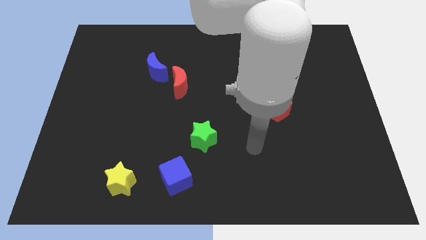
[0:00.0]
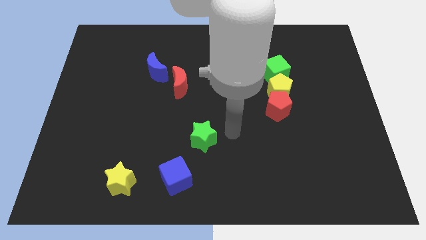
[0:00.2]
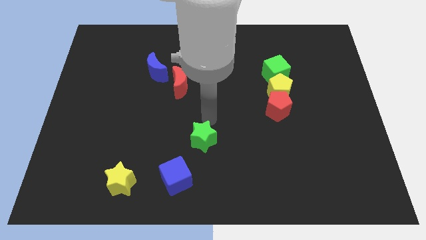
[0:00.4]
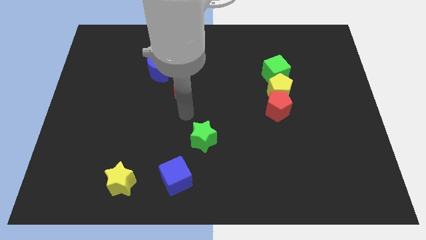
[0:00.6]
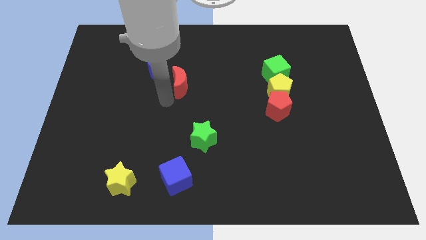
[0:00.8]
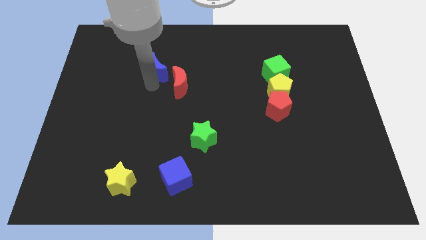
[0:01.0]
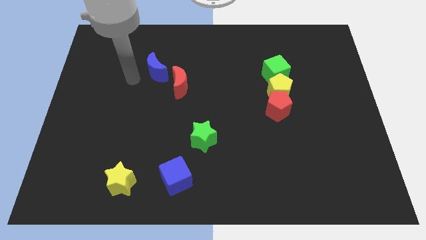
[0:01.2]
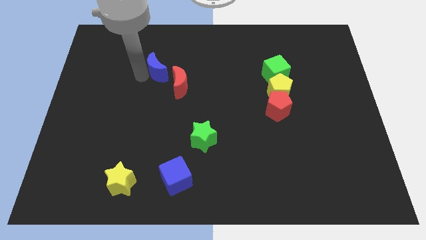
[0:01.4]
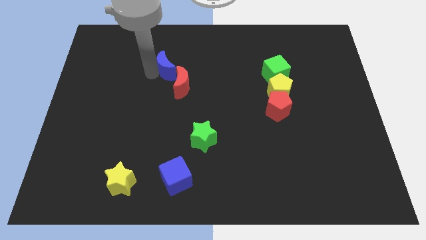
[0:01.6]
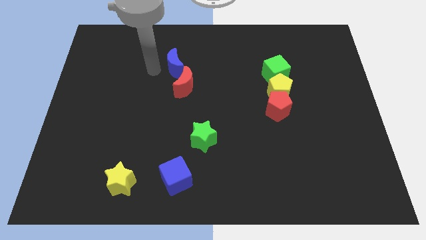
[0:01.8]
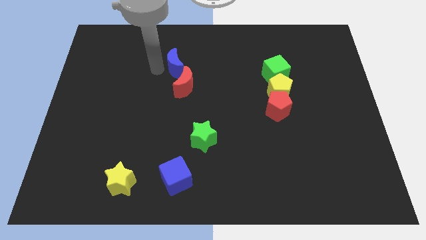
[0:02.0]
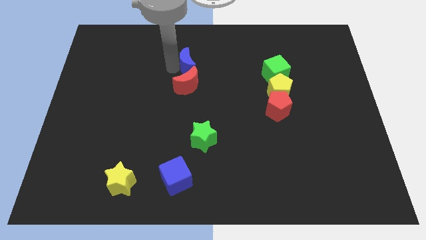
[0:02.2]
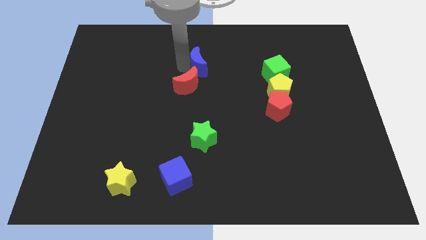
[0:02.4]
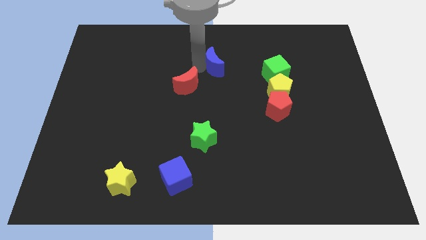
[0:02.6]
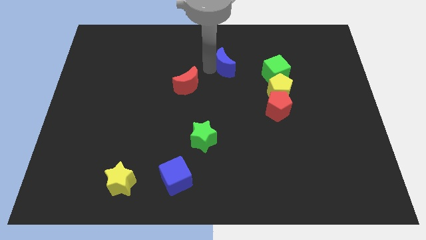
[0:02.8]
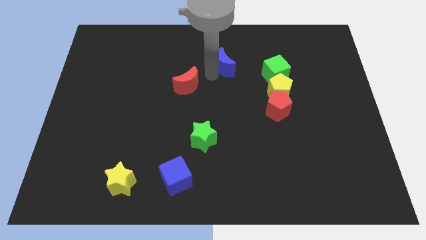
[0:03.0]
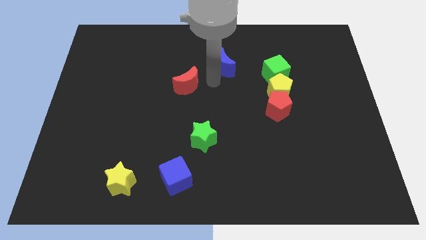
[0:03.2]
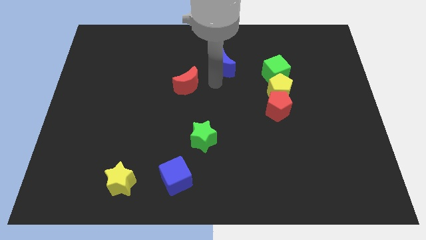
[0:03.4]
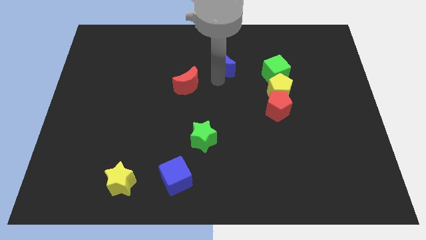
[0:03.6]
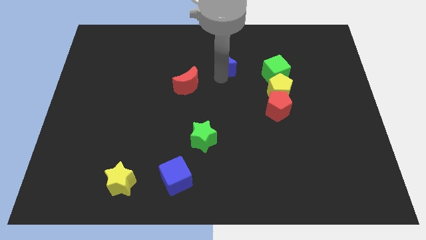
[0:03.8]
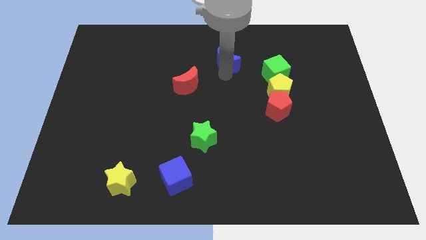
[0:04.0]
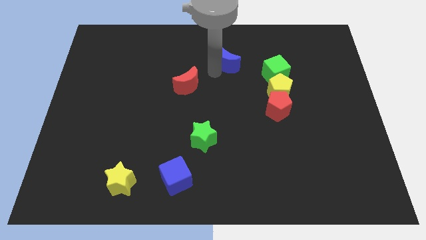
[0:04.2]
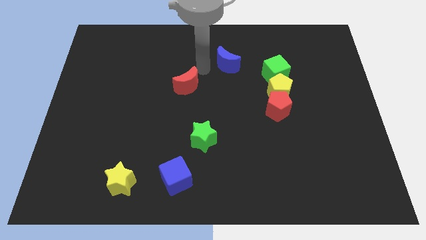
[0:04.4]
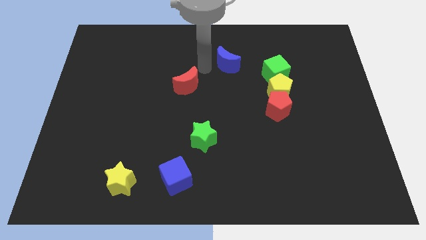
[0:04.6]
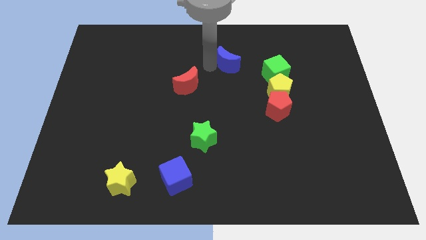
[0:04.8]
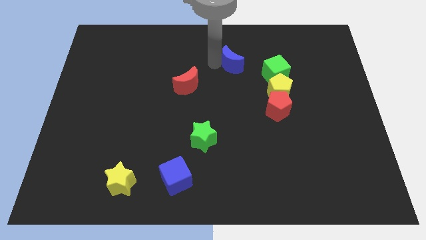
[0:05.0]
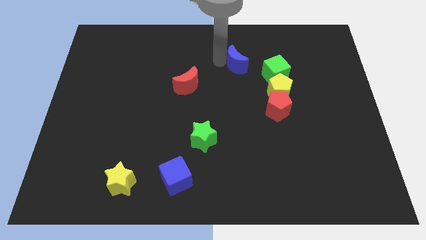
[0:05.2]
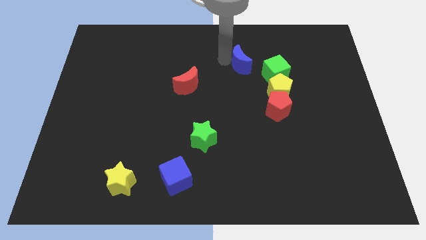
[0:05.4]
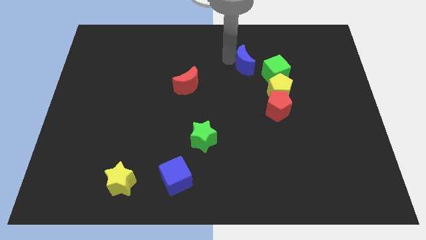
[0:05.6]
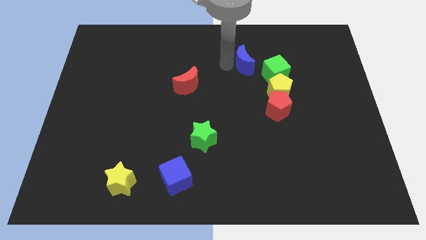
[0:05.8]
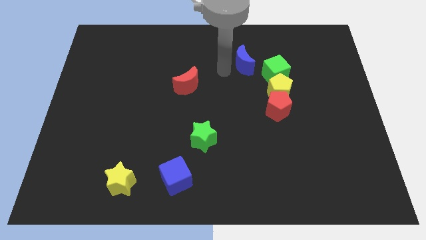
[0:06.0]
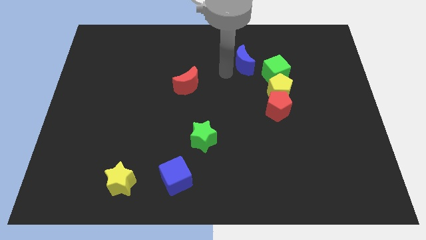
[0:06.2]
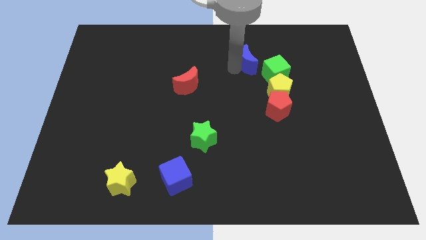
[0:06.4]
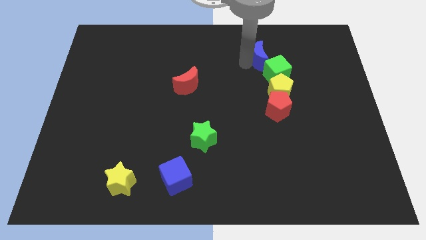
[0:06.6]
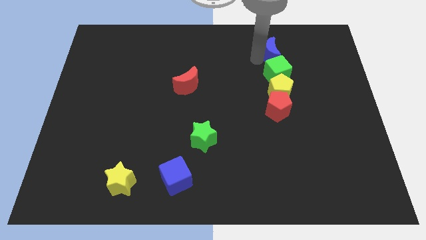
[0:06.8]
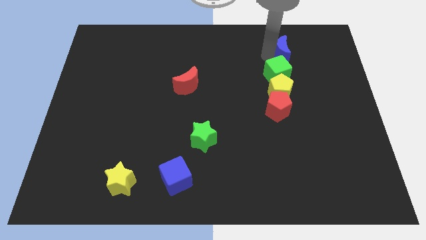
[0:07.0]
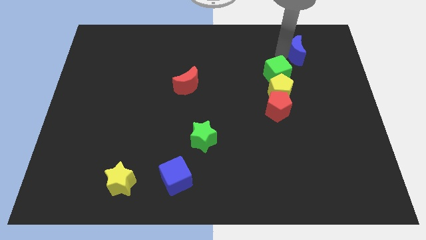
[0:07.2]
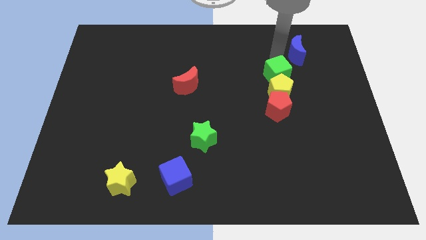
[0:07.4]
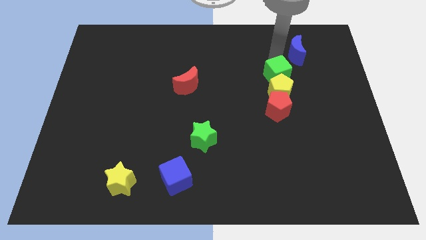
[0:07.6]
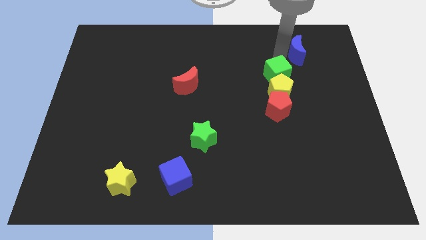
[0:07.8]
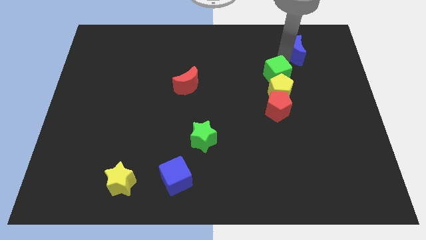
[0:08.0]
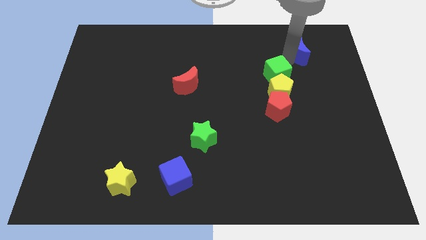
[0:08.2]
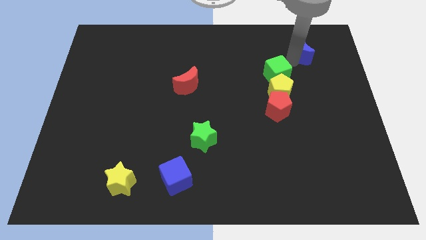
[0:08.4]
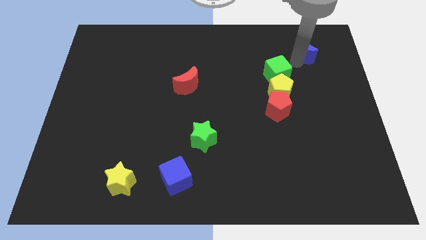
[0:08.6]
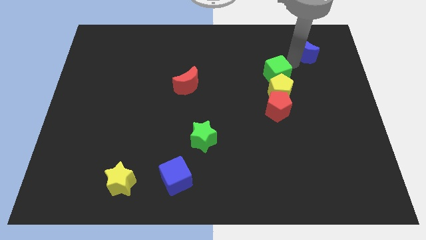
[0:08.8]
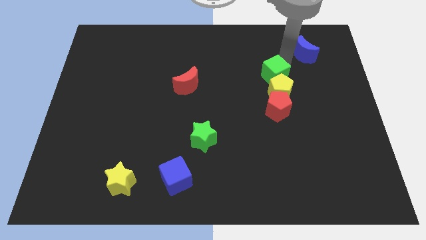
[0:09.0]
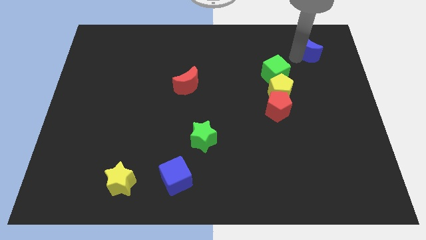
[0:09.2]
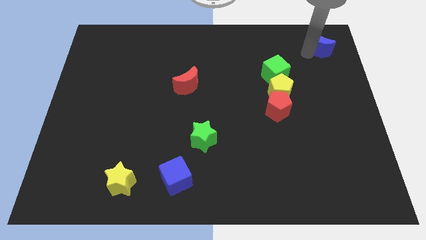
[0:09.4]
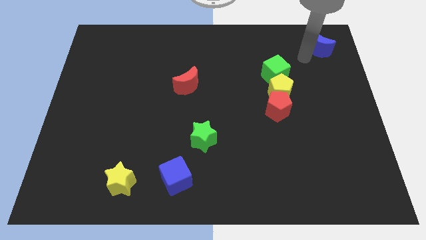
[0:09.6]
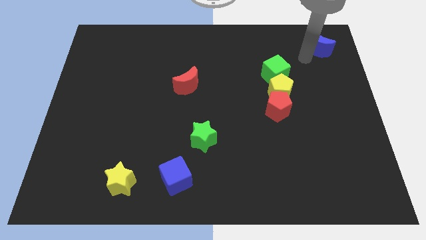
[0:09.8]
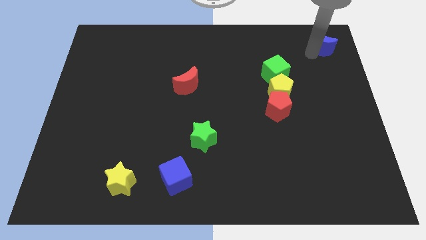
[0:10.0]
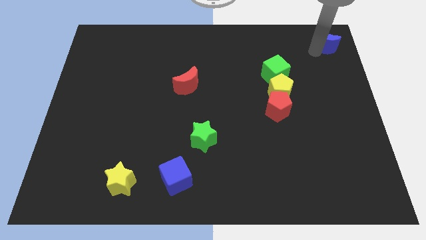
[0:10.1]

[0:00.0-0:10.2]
put the blue moon to the top right

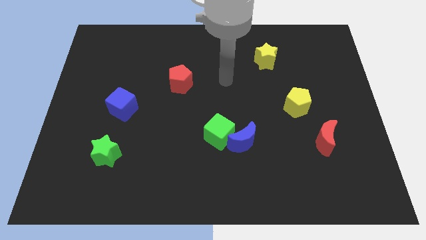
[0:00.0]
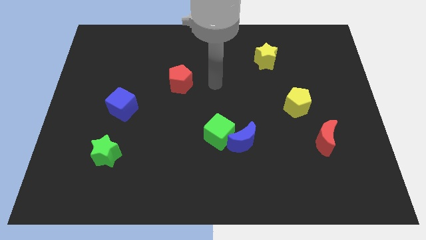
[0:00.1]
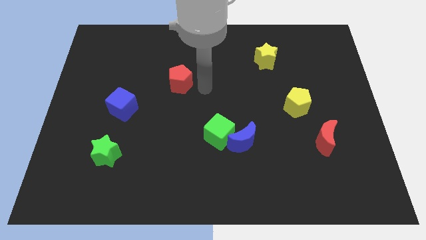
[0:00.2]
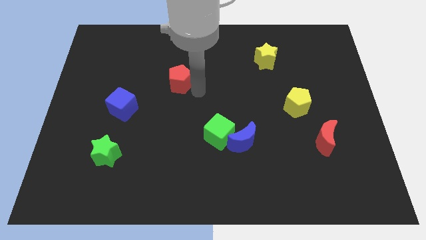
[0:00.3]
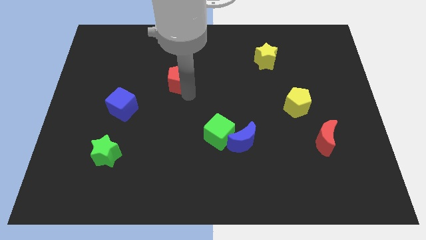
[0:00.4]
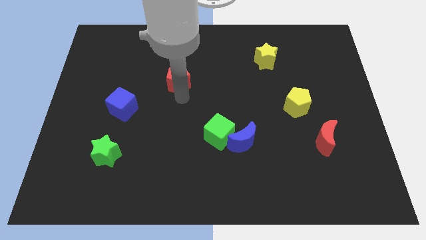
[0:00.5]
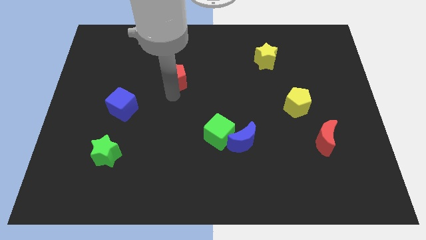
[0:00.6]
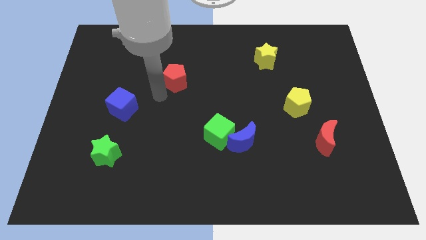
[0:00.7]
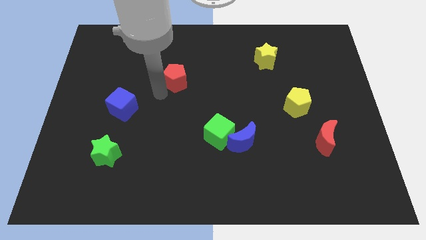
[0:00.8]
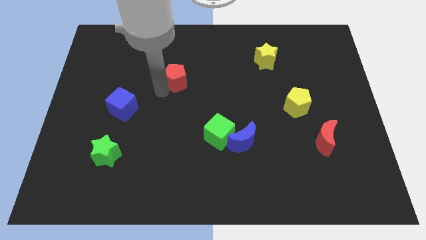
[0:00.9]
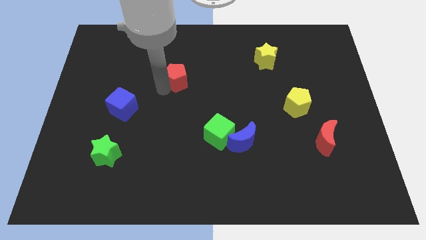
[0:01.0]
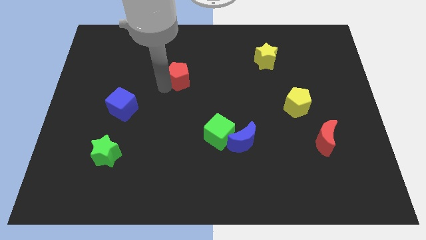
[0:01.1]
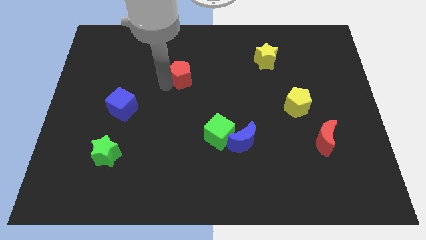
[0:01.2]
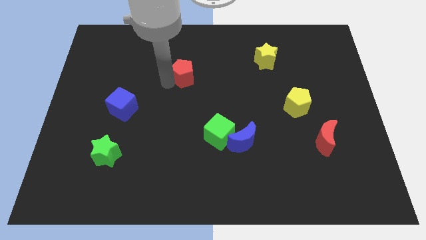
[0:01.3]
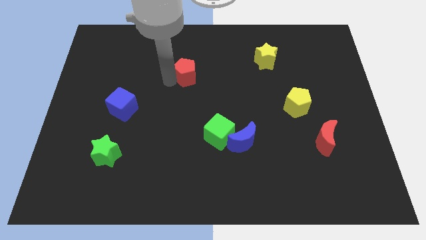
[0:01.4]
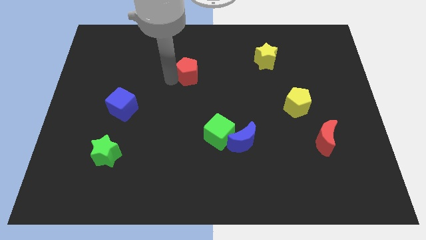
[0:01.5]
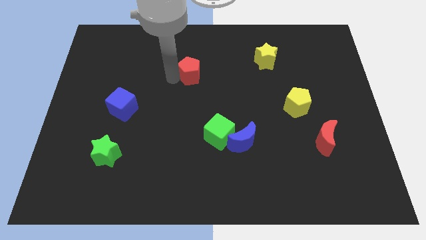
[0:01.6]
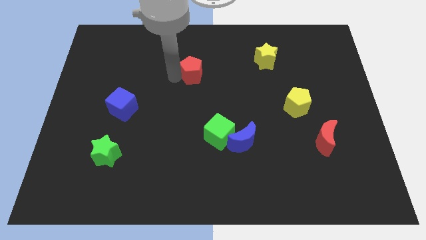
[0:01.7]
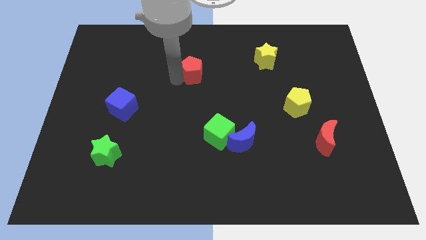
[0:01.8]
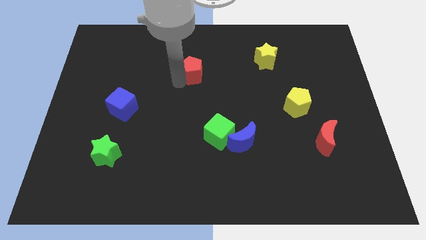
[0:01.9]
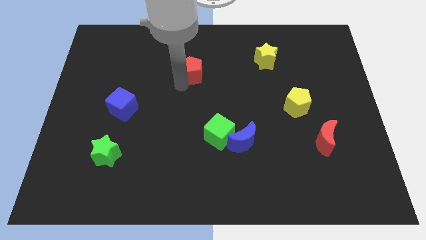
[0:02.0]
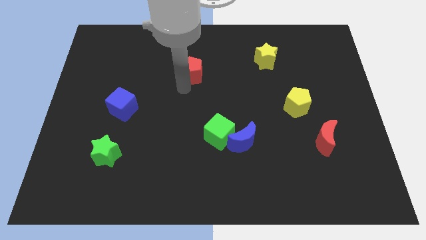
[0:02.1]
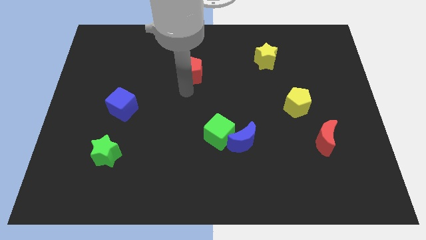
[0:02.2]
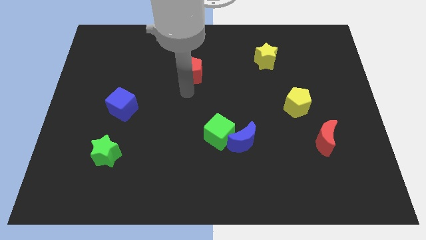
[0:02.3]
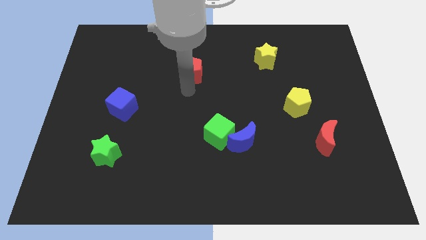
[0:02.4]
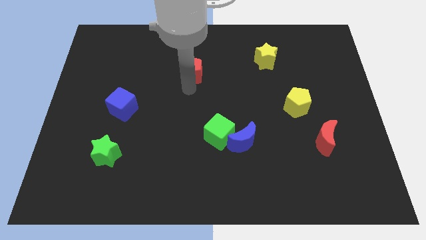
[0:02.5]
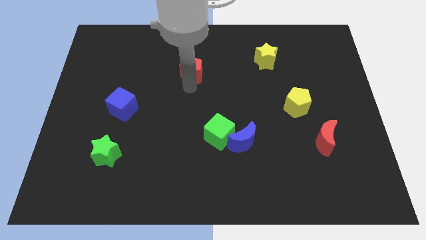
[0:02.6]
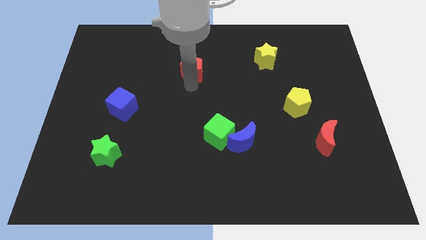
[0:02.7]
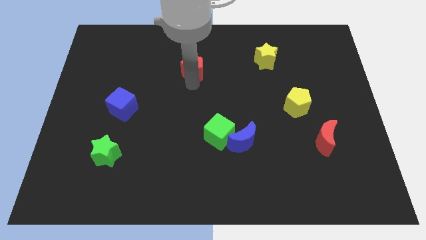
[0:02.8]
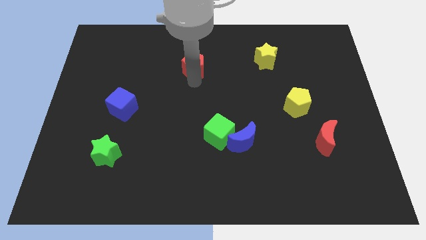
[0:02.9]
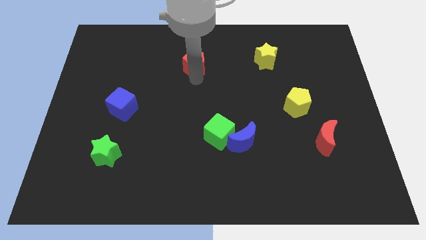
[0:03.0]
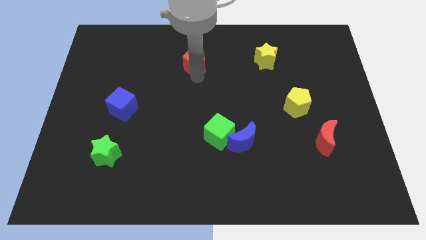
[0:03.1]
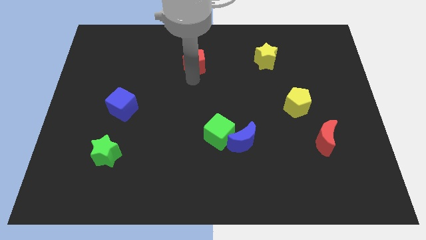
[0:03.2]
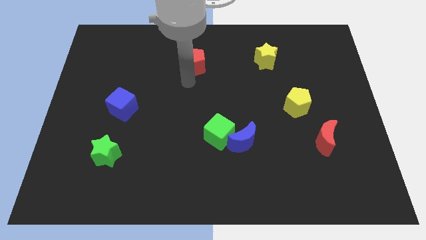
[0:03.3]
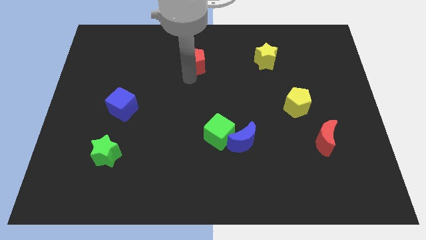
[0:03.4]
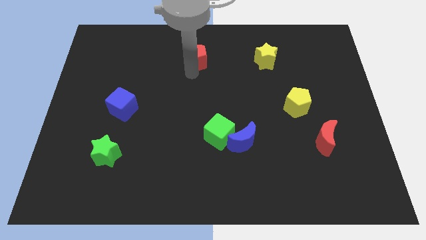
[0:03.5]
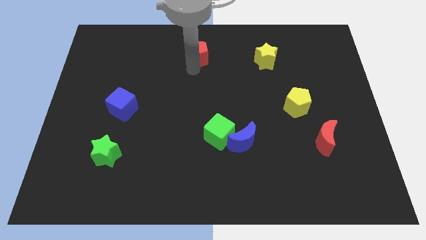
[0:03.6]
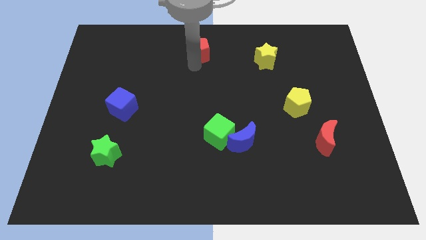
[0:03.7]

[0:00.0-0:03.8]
push the red pentagon to the top
